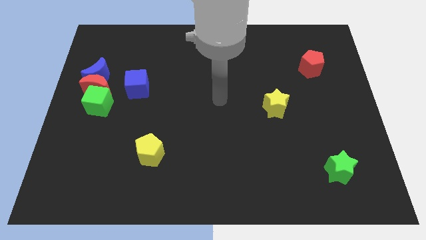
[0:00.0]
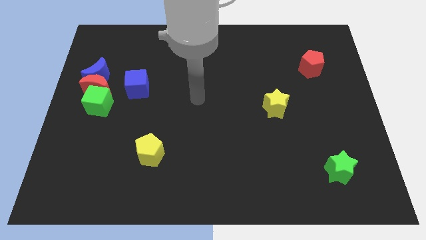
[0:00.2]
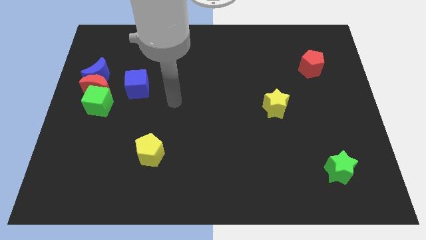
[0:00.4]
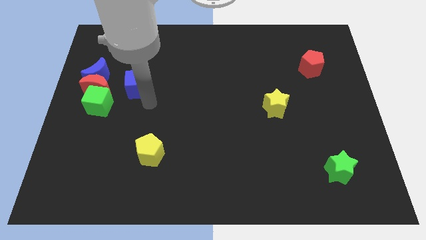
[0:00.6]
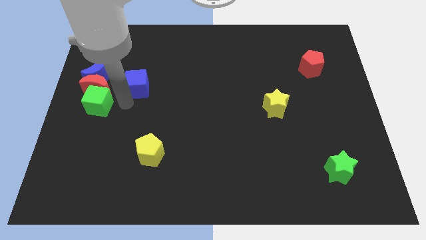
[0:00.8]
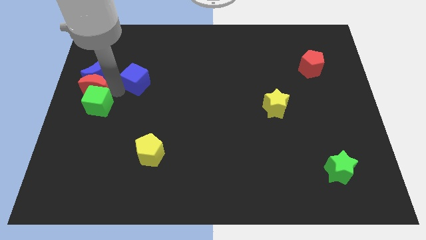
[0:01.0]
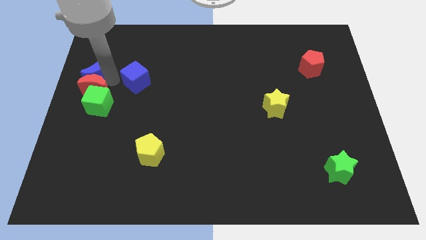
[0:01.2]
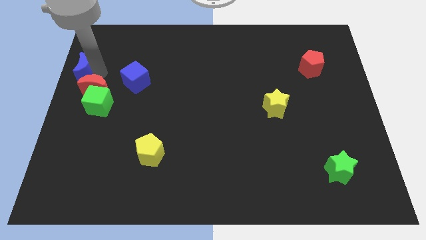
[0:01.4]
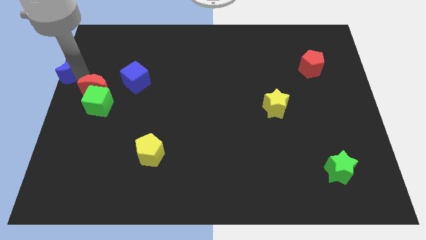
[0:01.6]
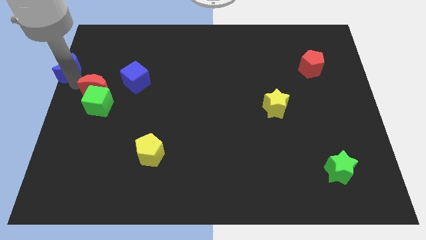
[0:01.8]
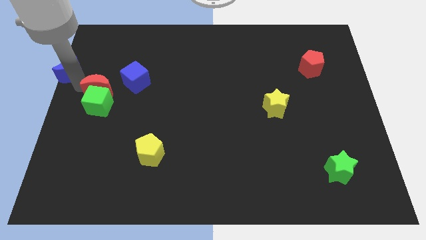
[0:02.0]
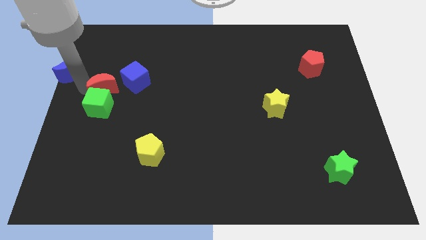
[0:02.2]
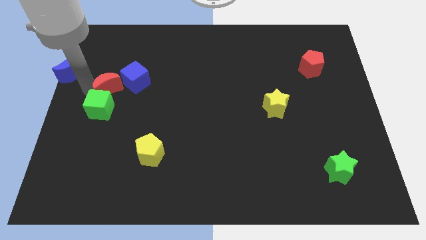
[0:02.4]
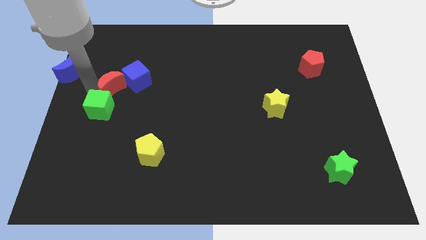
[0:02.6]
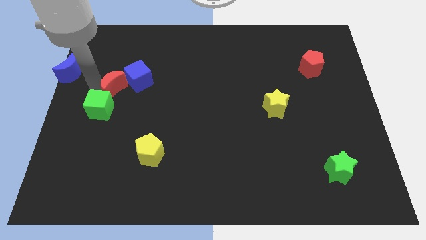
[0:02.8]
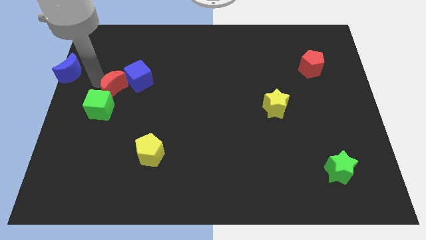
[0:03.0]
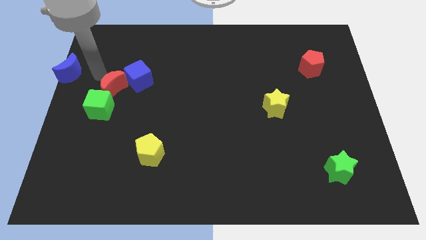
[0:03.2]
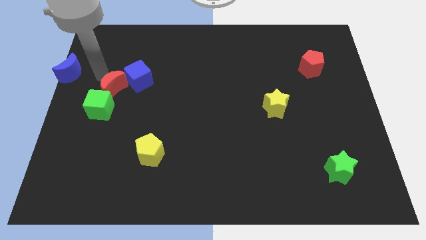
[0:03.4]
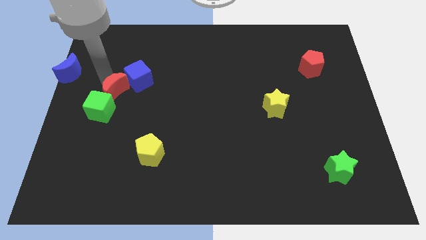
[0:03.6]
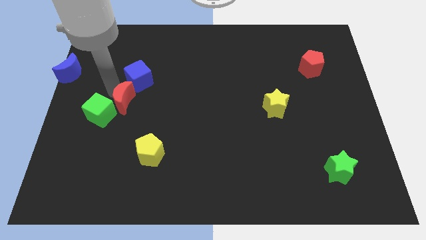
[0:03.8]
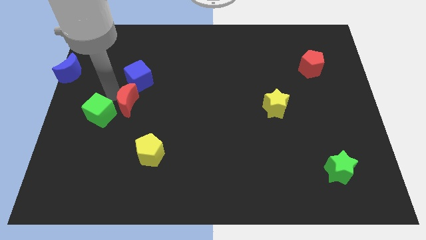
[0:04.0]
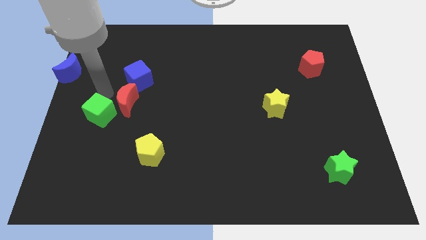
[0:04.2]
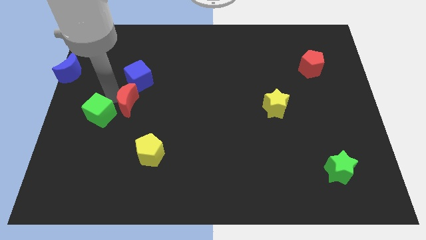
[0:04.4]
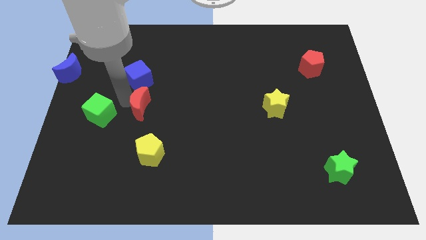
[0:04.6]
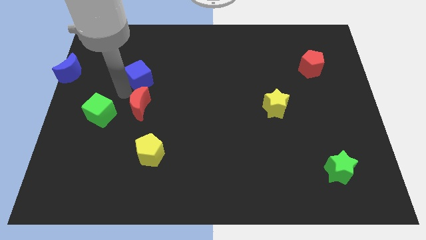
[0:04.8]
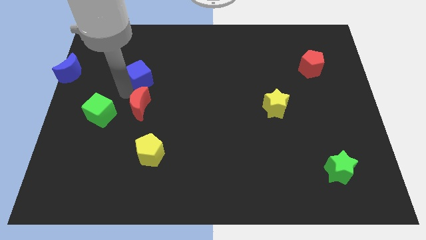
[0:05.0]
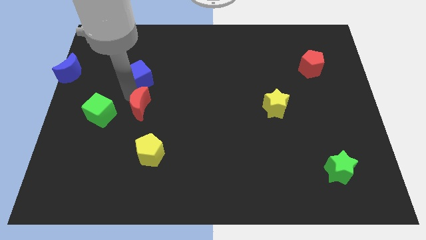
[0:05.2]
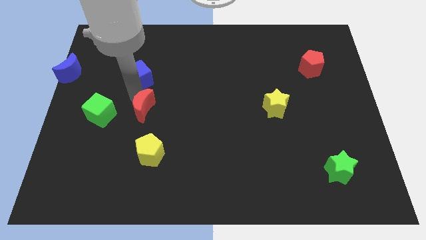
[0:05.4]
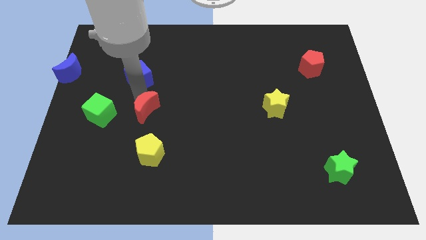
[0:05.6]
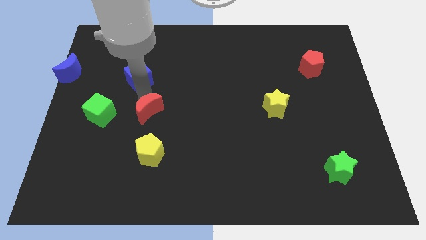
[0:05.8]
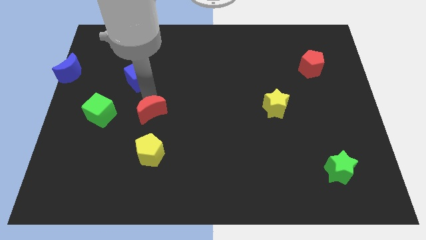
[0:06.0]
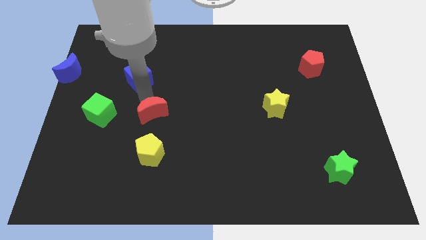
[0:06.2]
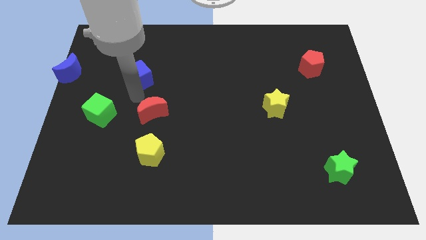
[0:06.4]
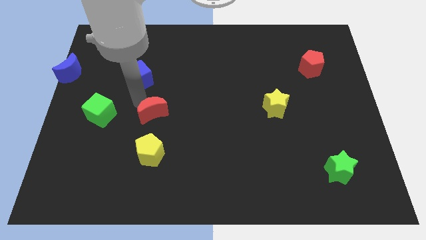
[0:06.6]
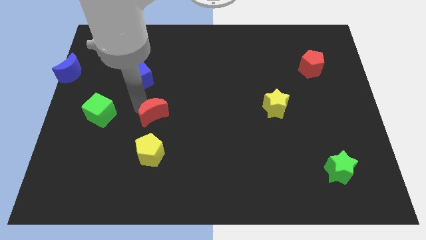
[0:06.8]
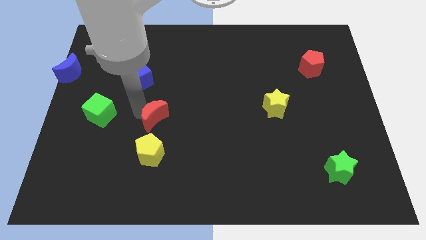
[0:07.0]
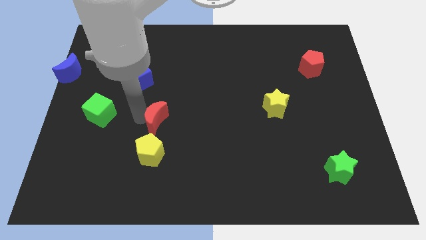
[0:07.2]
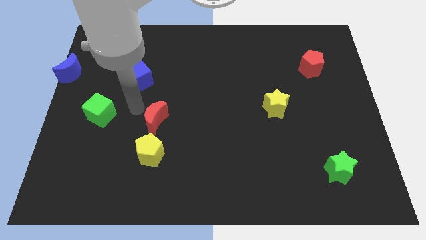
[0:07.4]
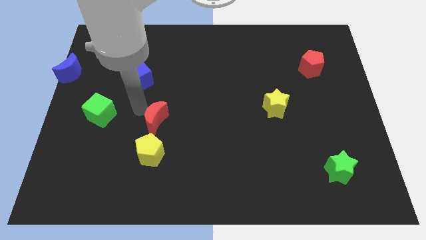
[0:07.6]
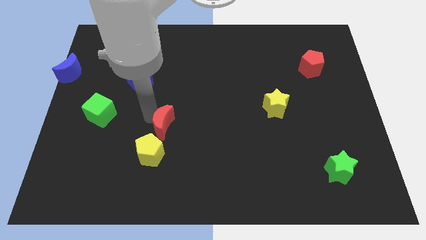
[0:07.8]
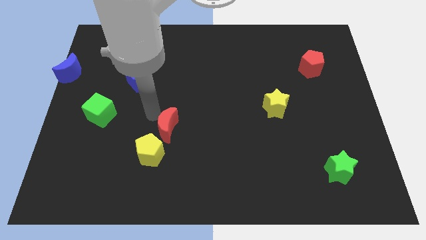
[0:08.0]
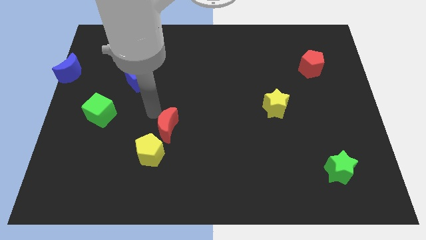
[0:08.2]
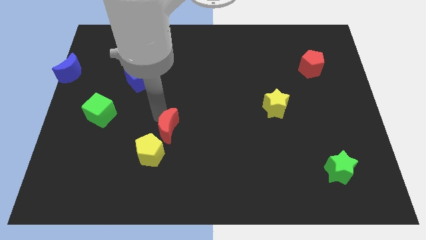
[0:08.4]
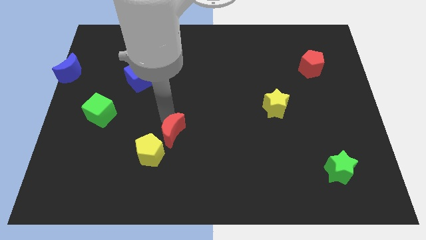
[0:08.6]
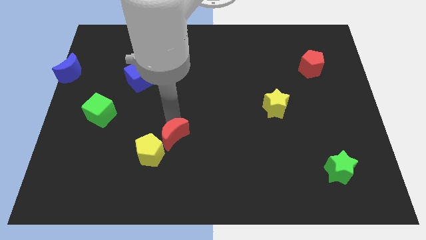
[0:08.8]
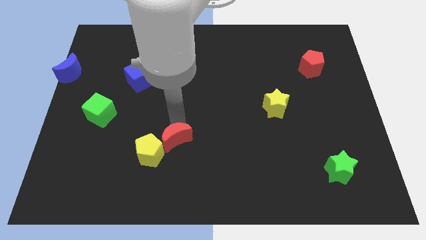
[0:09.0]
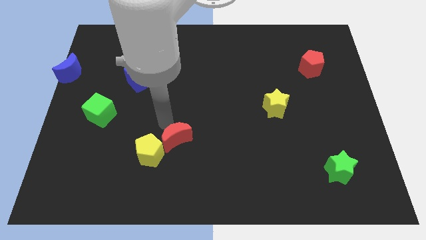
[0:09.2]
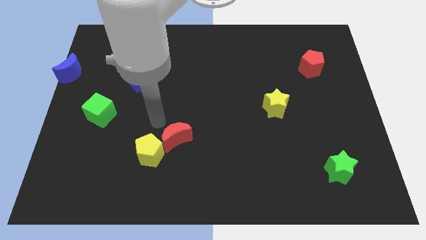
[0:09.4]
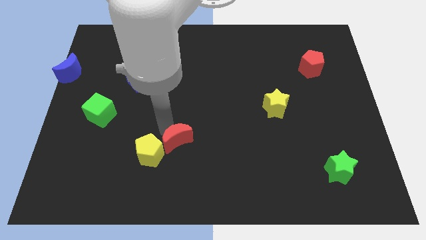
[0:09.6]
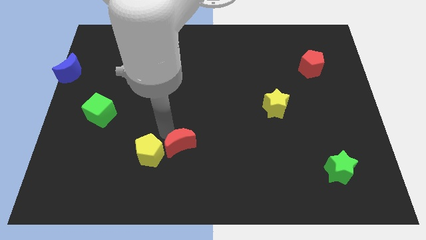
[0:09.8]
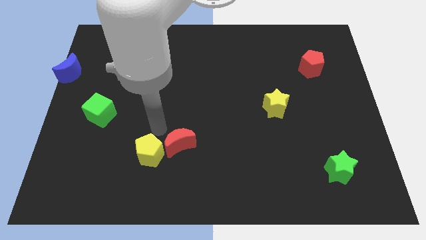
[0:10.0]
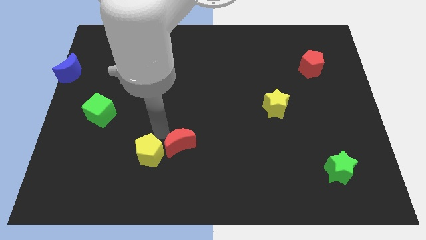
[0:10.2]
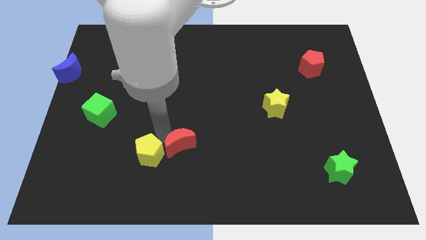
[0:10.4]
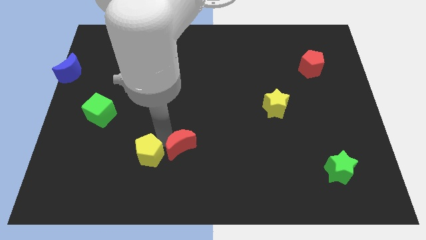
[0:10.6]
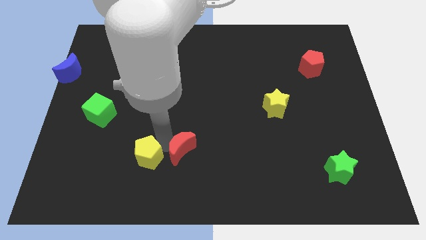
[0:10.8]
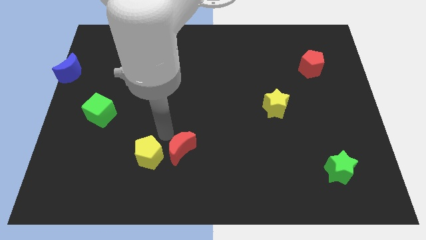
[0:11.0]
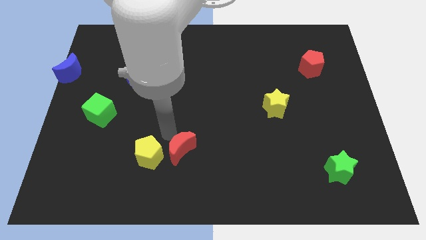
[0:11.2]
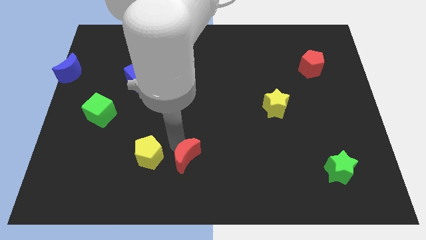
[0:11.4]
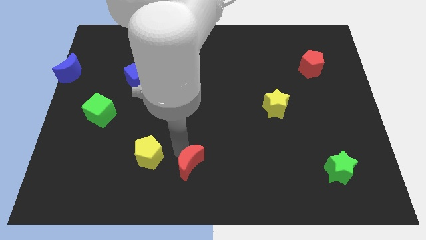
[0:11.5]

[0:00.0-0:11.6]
slide the red moon to the bottom side

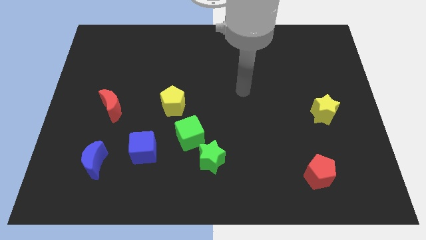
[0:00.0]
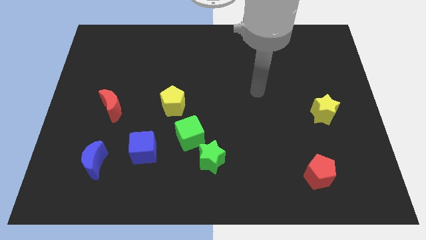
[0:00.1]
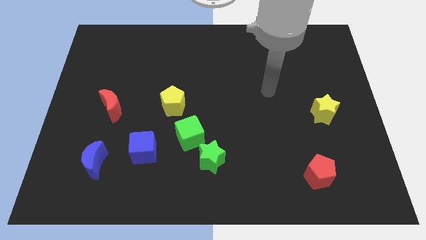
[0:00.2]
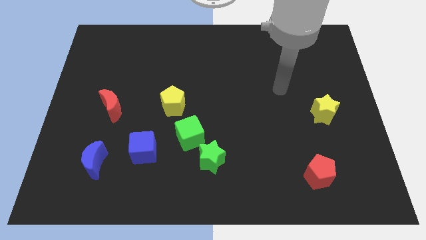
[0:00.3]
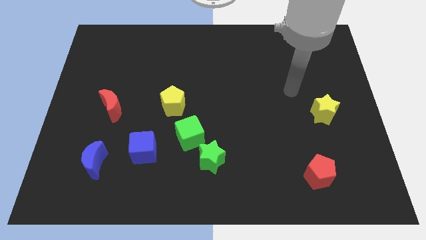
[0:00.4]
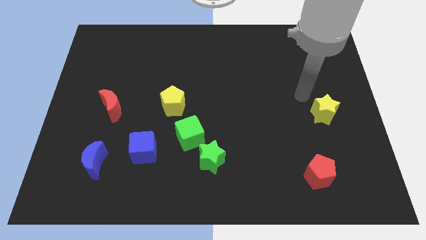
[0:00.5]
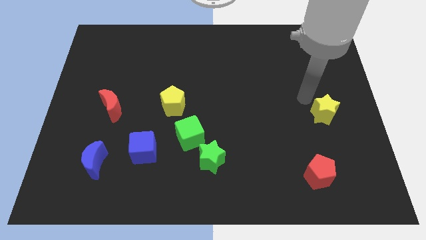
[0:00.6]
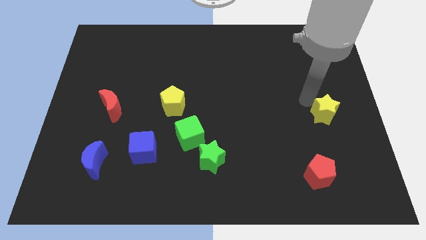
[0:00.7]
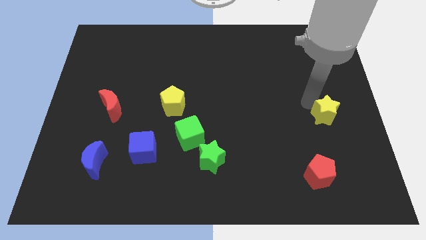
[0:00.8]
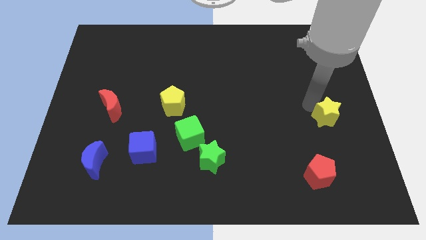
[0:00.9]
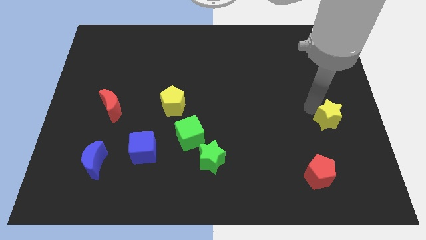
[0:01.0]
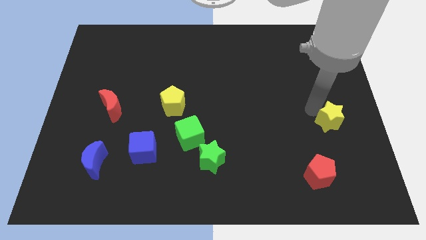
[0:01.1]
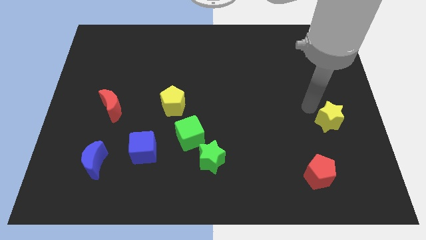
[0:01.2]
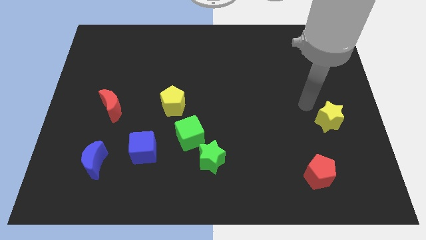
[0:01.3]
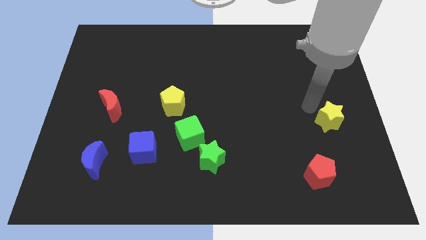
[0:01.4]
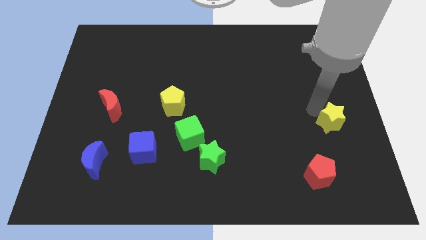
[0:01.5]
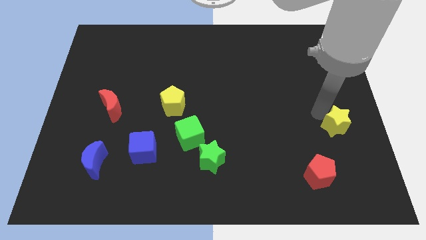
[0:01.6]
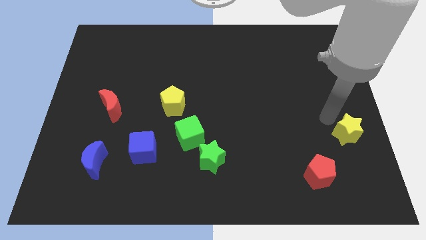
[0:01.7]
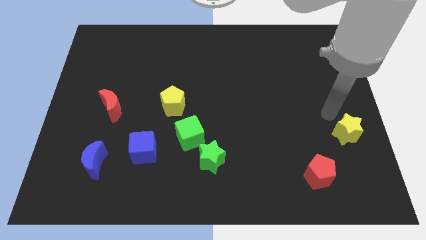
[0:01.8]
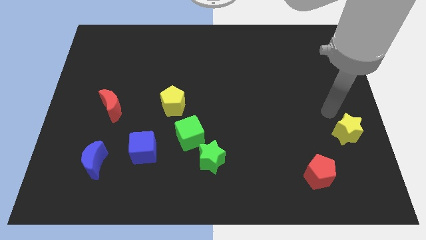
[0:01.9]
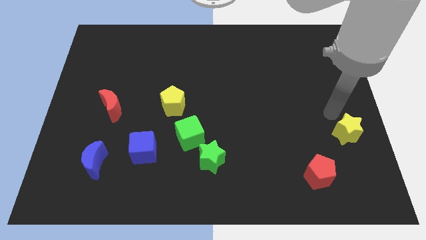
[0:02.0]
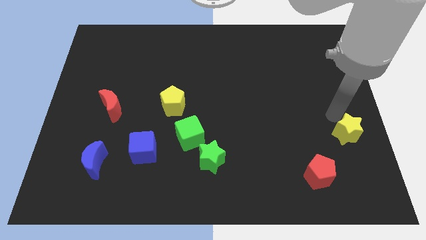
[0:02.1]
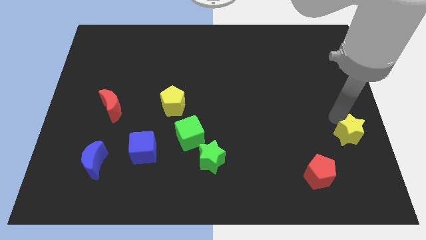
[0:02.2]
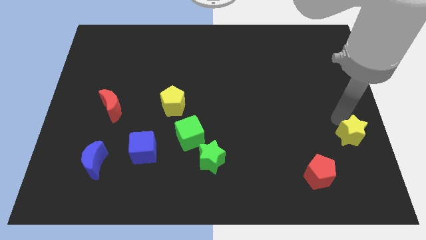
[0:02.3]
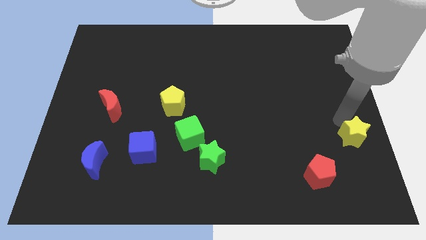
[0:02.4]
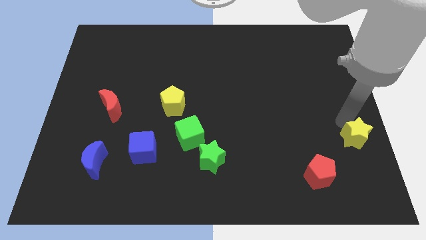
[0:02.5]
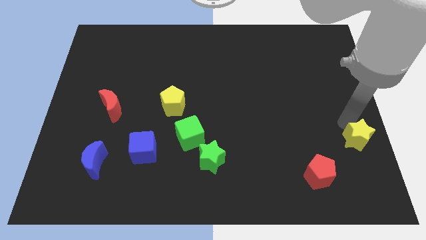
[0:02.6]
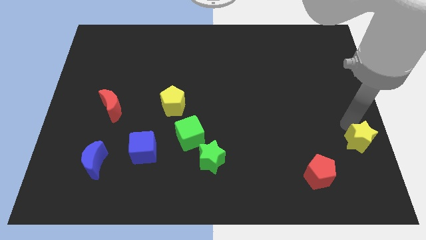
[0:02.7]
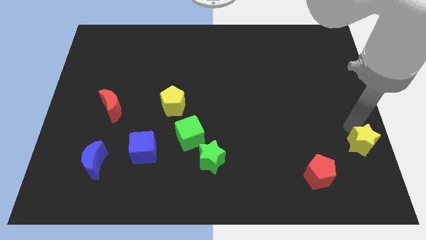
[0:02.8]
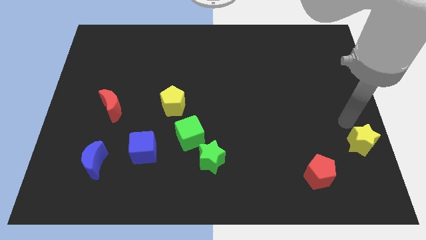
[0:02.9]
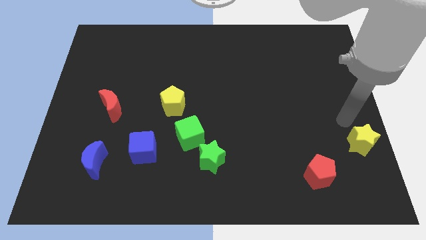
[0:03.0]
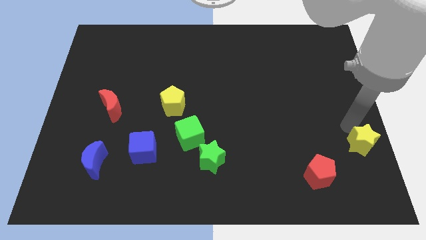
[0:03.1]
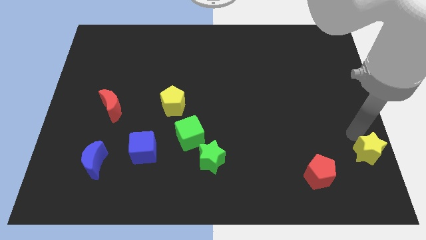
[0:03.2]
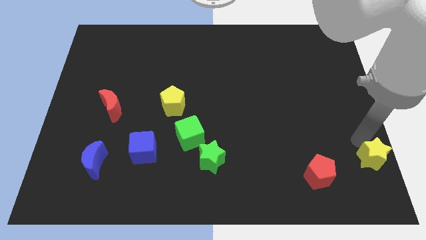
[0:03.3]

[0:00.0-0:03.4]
move the yellow star to the bottom right corner
